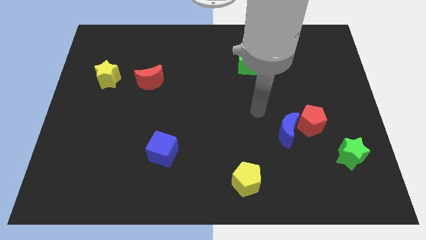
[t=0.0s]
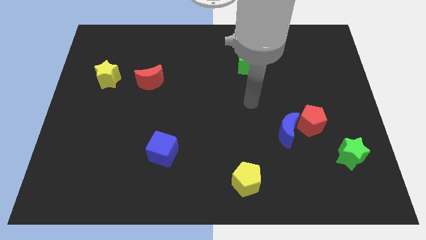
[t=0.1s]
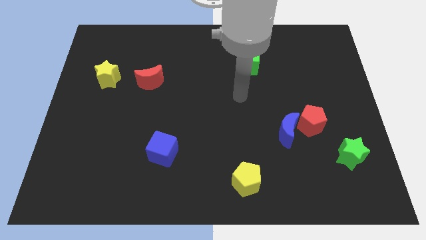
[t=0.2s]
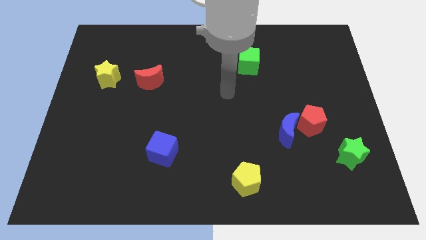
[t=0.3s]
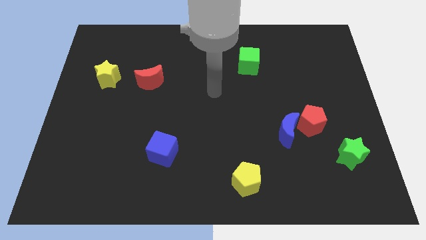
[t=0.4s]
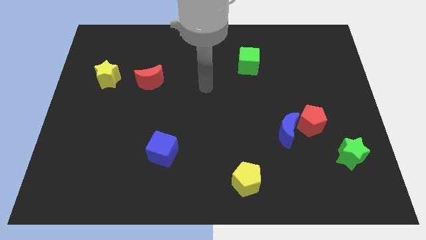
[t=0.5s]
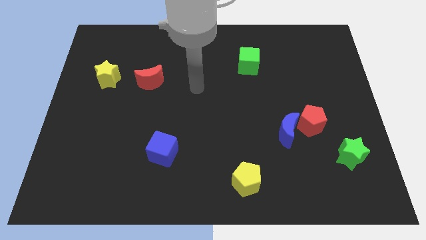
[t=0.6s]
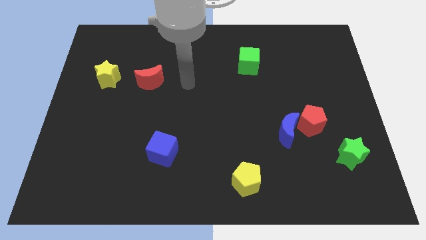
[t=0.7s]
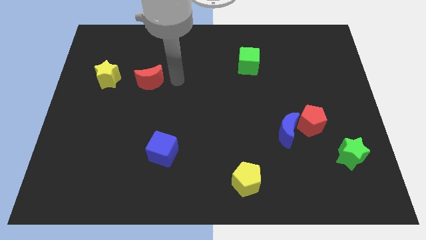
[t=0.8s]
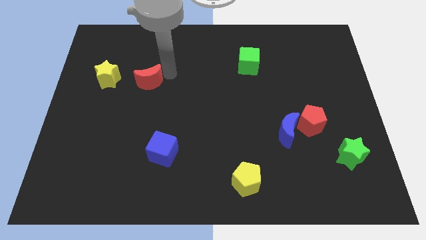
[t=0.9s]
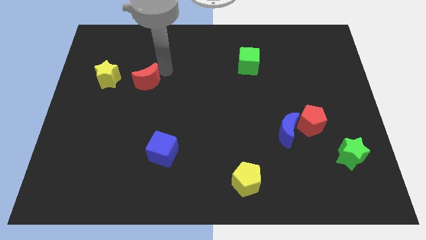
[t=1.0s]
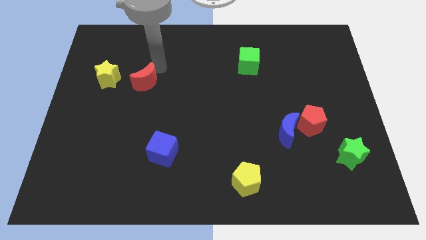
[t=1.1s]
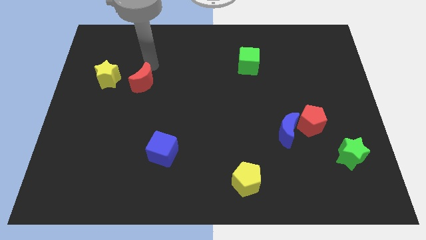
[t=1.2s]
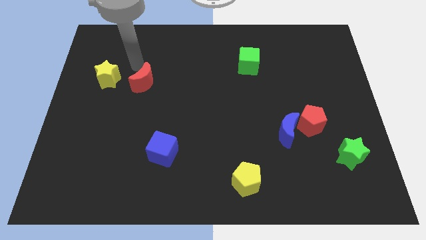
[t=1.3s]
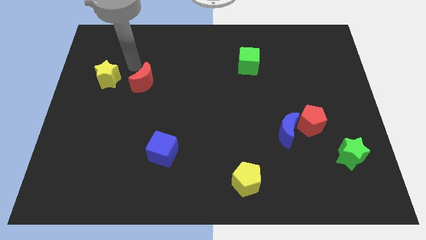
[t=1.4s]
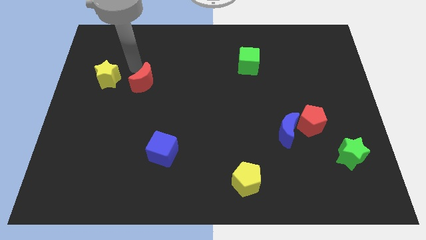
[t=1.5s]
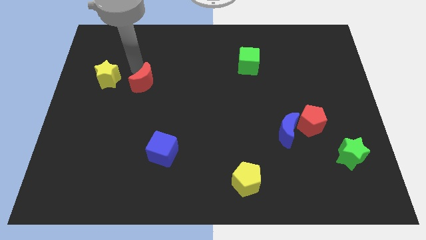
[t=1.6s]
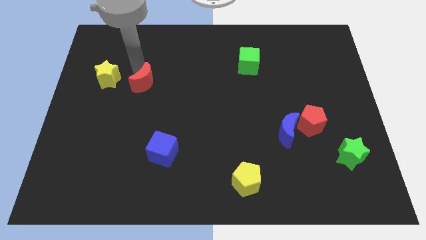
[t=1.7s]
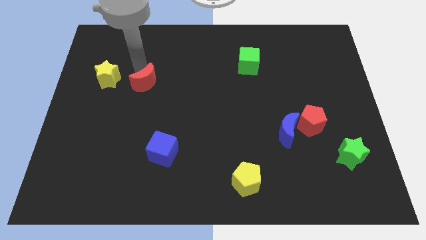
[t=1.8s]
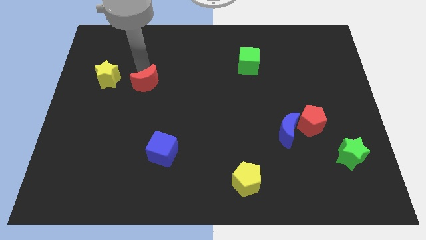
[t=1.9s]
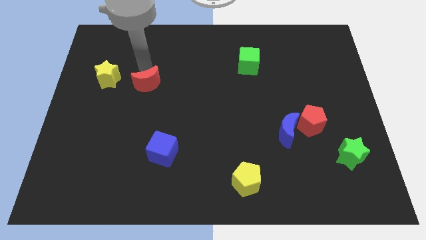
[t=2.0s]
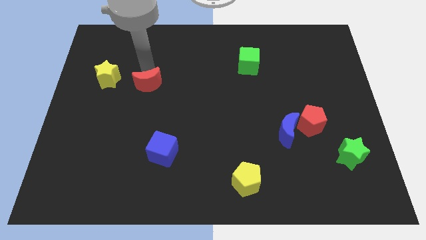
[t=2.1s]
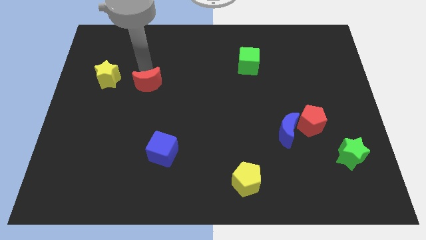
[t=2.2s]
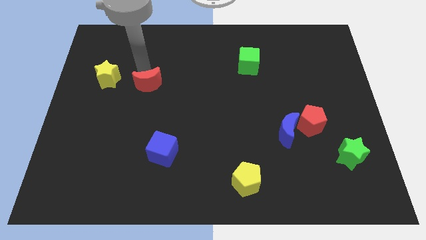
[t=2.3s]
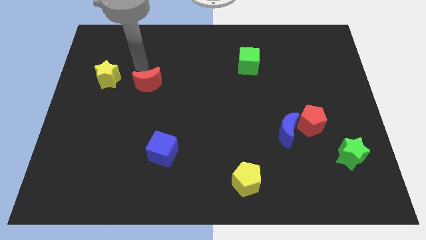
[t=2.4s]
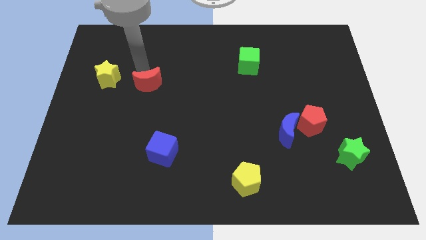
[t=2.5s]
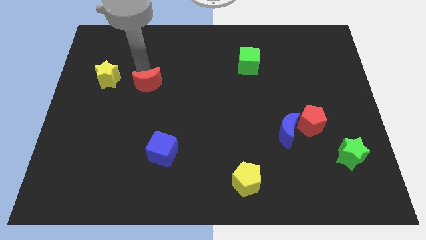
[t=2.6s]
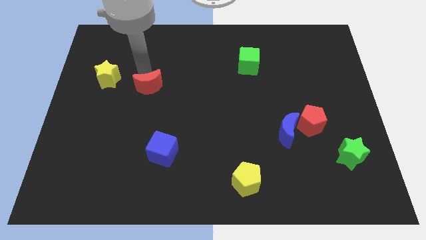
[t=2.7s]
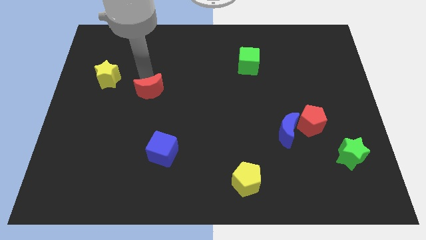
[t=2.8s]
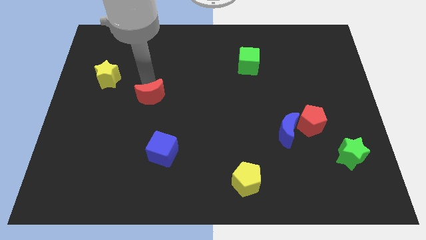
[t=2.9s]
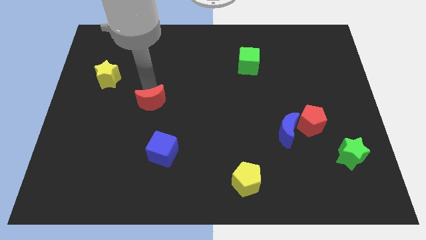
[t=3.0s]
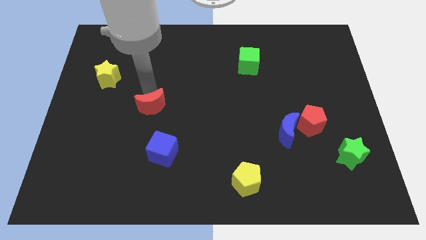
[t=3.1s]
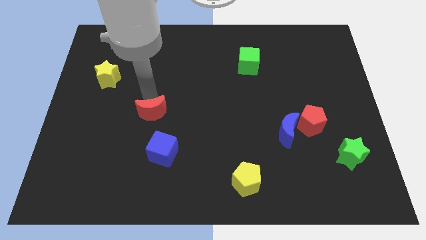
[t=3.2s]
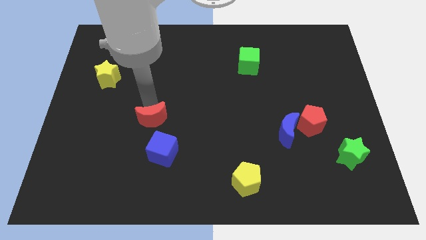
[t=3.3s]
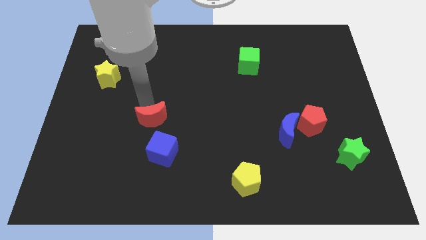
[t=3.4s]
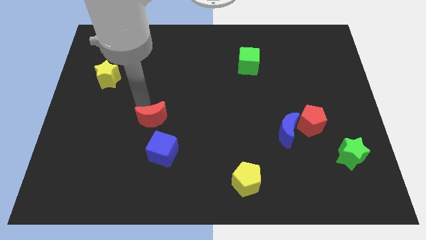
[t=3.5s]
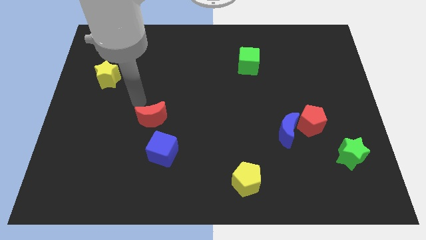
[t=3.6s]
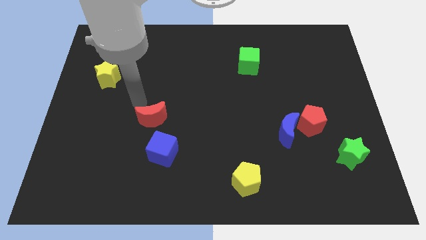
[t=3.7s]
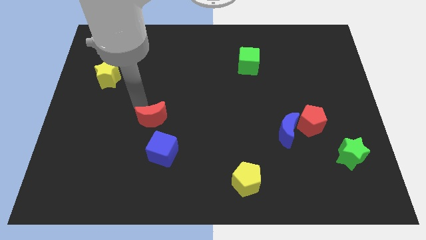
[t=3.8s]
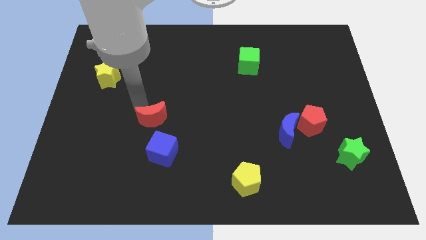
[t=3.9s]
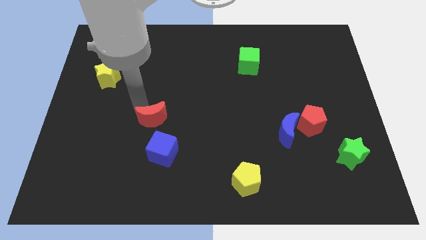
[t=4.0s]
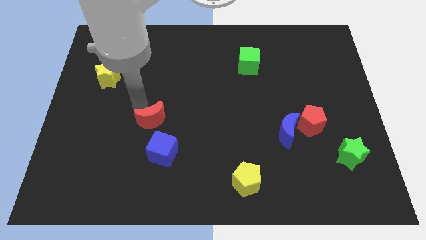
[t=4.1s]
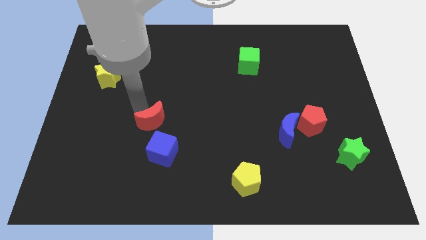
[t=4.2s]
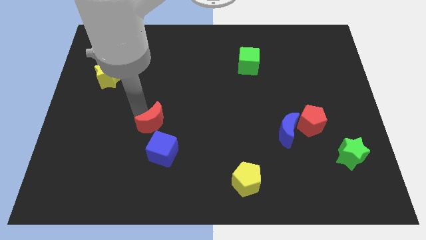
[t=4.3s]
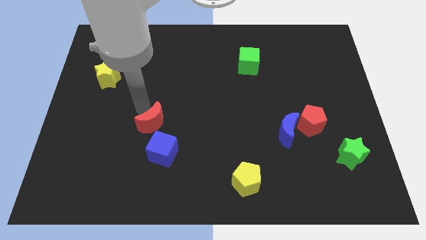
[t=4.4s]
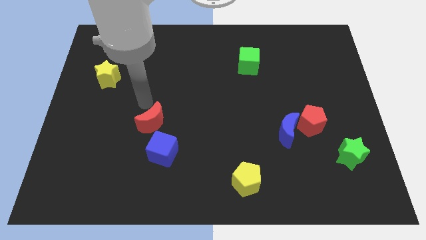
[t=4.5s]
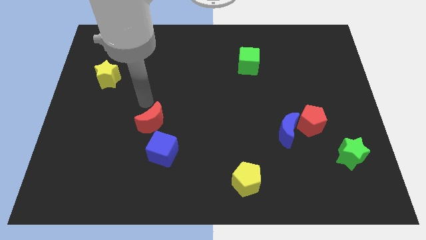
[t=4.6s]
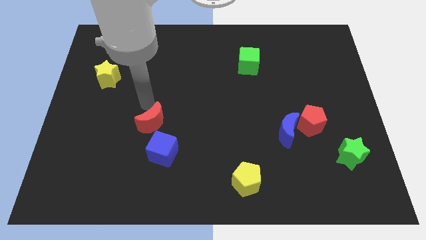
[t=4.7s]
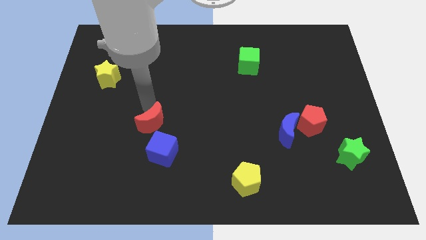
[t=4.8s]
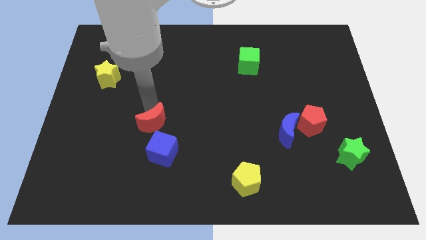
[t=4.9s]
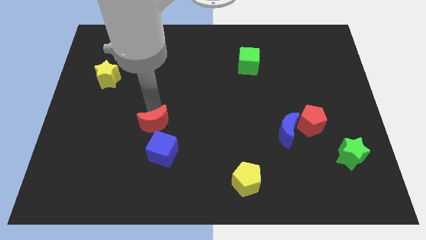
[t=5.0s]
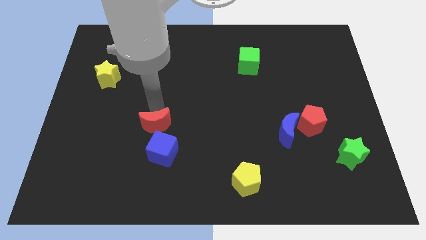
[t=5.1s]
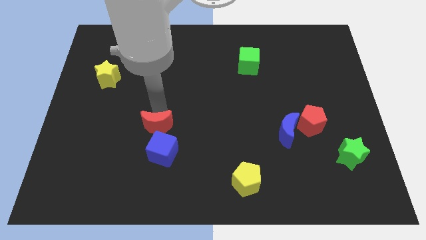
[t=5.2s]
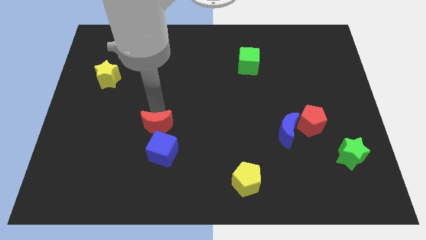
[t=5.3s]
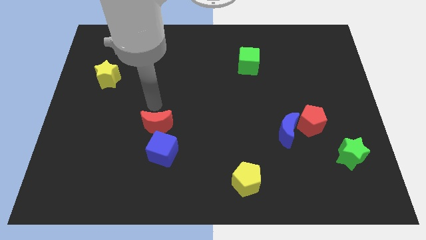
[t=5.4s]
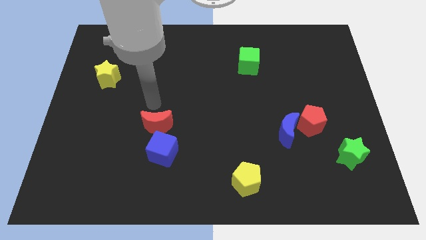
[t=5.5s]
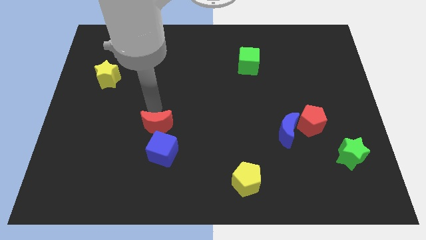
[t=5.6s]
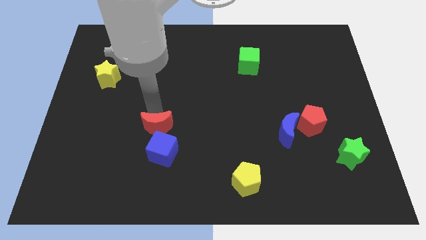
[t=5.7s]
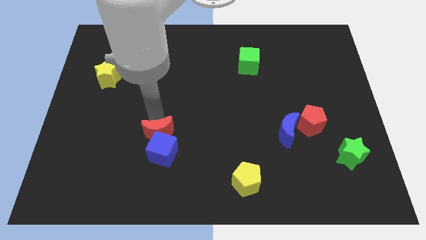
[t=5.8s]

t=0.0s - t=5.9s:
move the red moon to the blue cube
